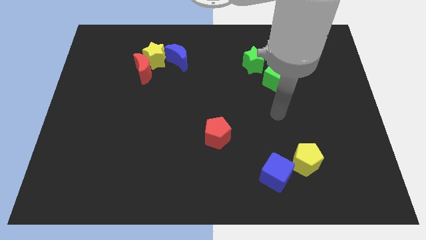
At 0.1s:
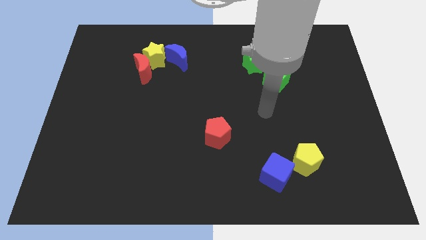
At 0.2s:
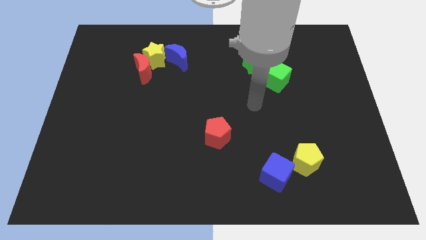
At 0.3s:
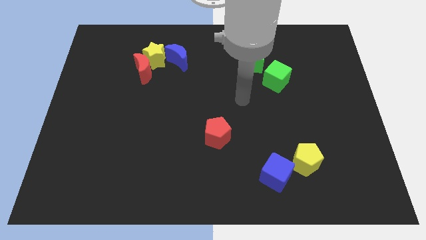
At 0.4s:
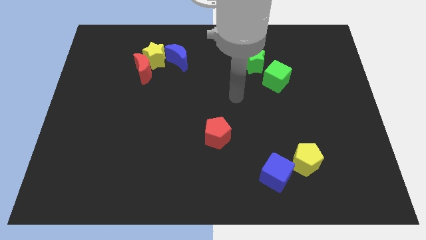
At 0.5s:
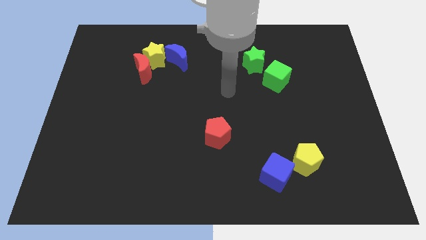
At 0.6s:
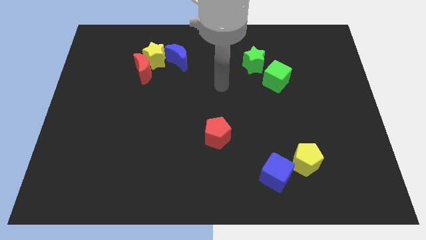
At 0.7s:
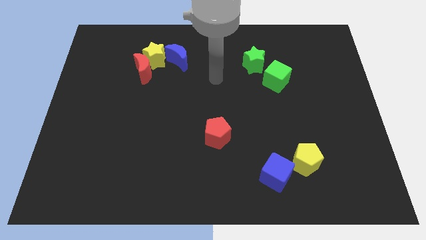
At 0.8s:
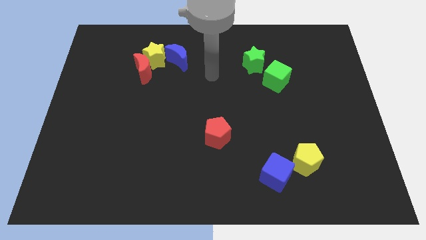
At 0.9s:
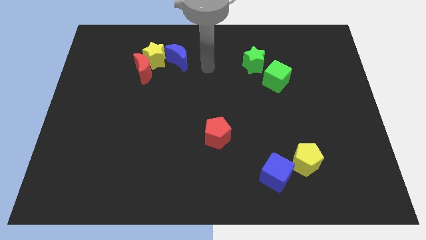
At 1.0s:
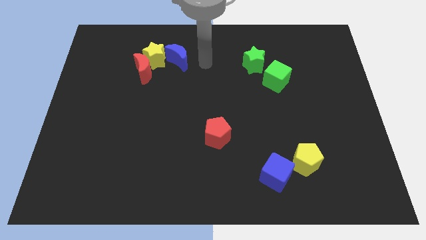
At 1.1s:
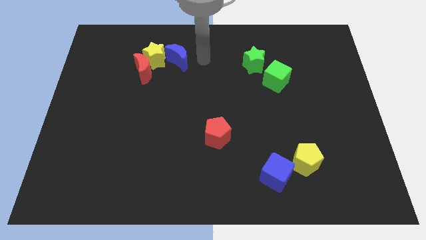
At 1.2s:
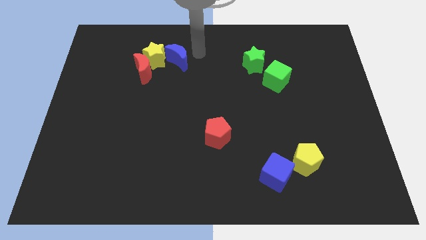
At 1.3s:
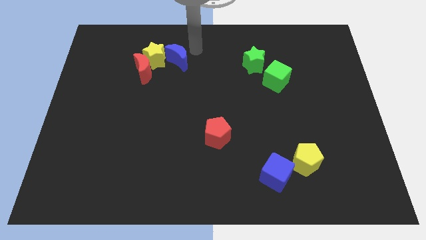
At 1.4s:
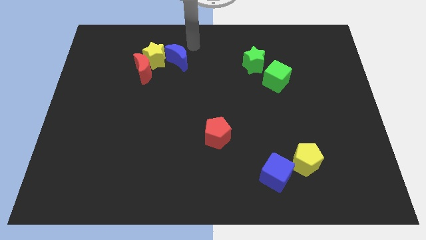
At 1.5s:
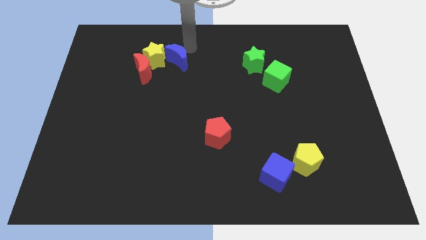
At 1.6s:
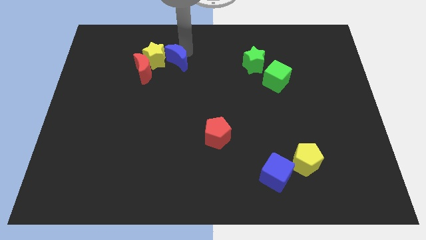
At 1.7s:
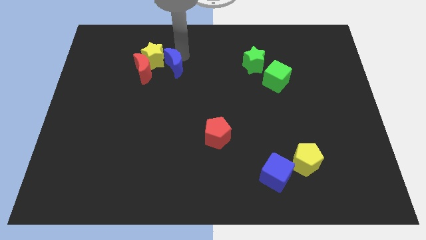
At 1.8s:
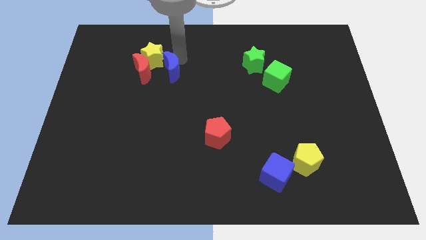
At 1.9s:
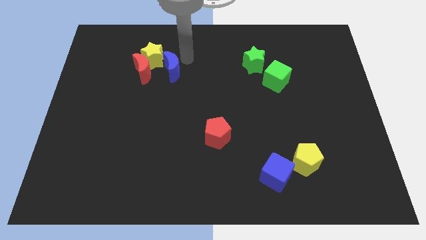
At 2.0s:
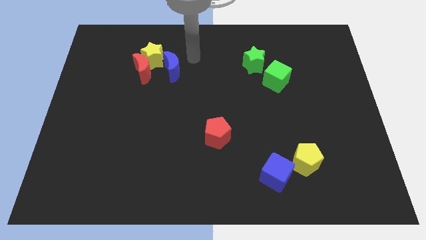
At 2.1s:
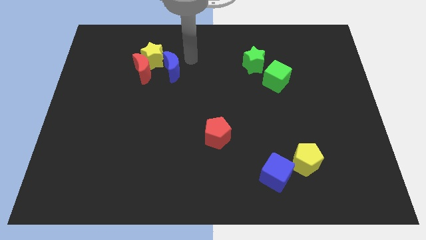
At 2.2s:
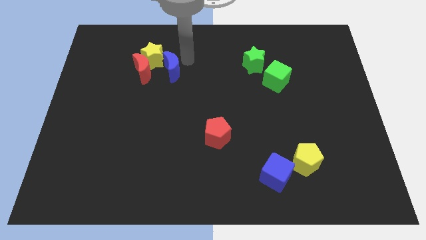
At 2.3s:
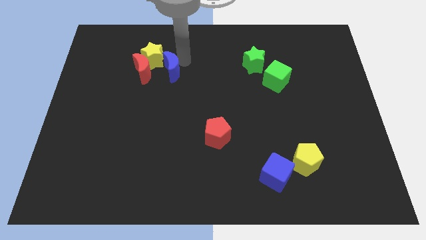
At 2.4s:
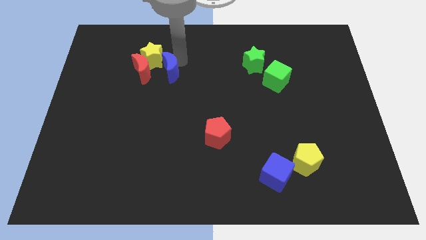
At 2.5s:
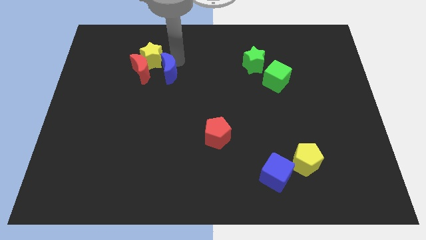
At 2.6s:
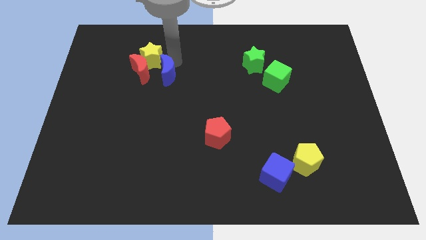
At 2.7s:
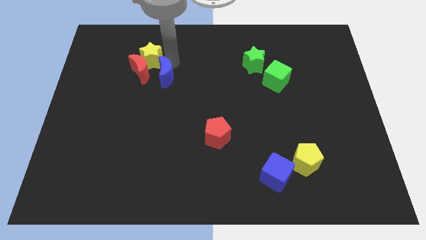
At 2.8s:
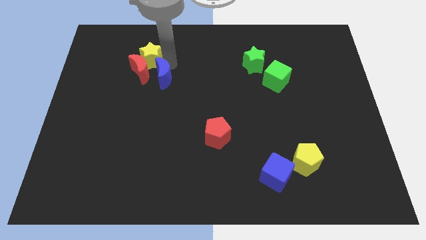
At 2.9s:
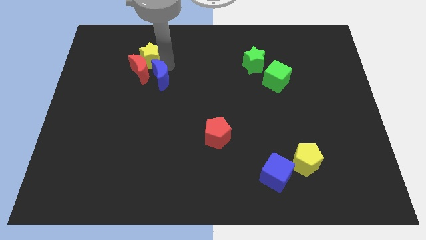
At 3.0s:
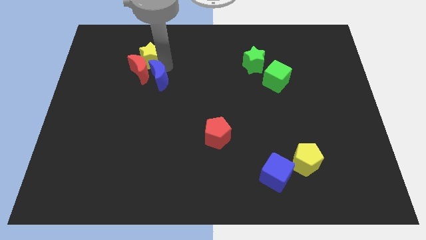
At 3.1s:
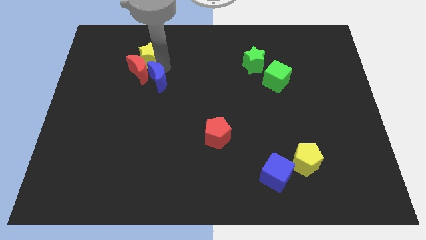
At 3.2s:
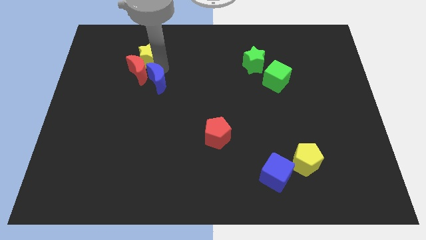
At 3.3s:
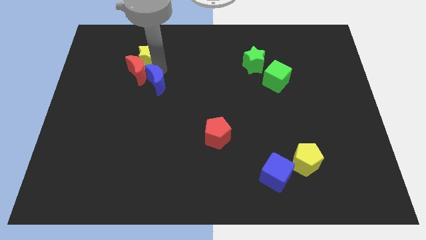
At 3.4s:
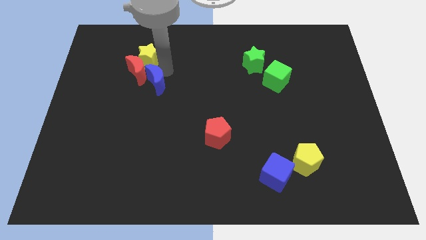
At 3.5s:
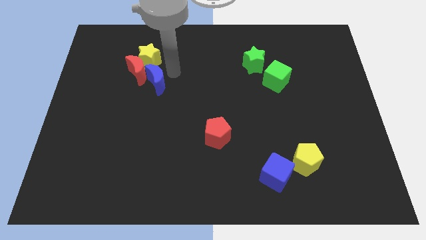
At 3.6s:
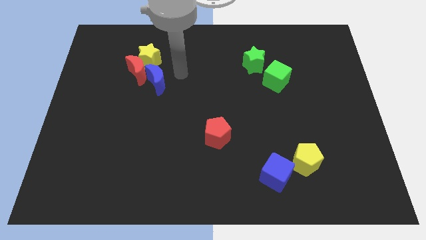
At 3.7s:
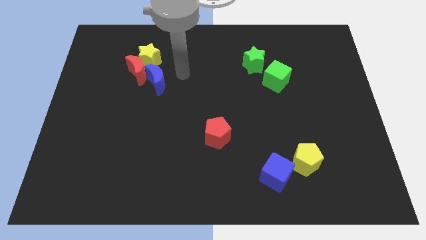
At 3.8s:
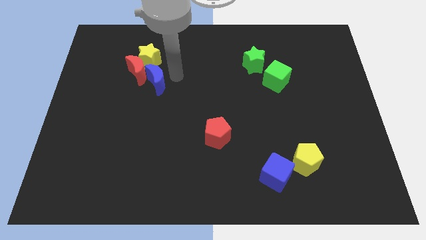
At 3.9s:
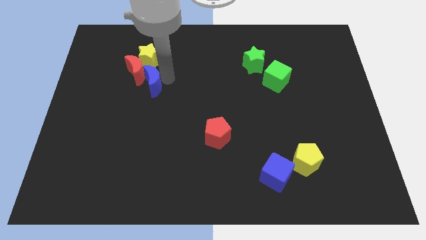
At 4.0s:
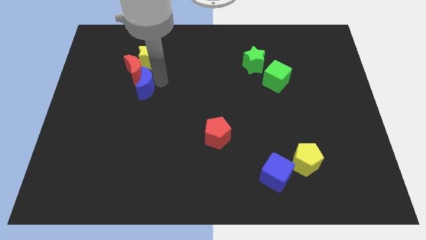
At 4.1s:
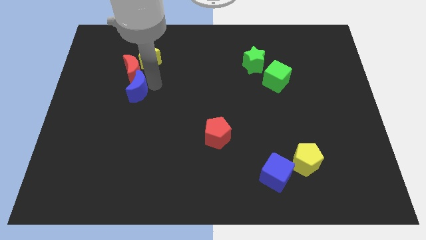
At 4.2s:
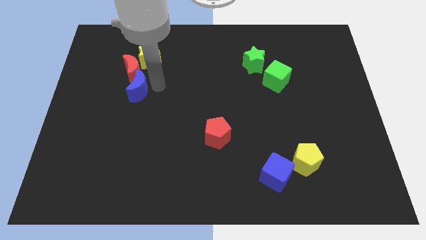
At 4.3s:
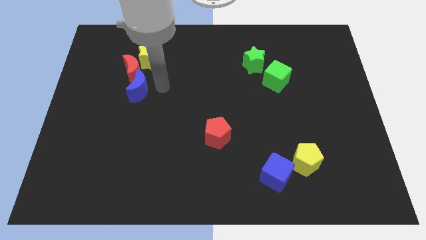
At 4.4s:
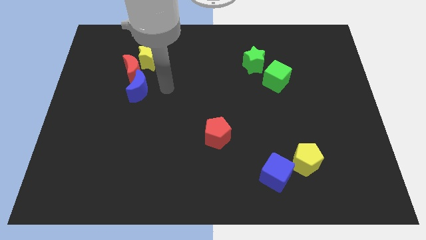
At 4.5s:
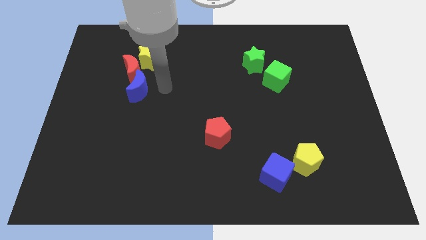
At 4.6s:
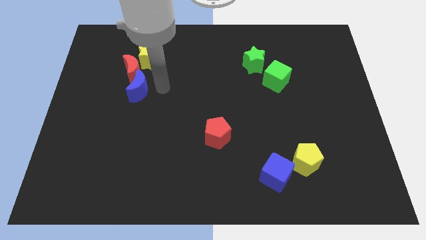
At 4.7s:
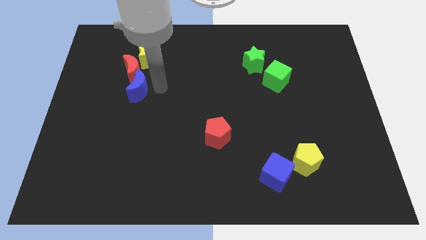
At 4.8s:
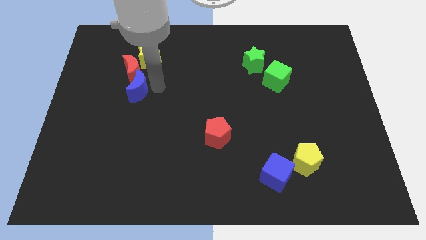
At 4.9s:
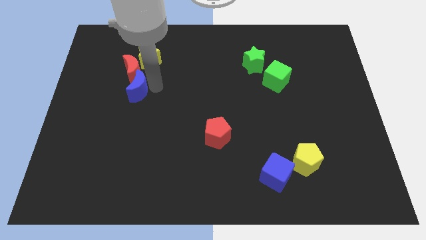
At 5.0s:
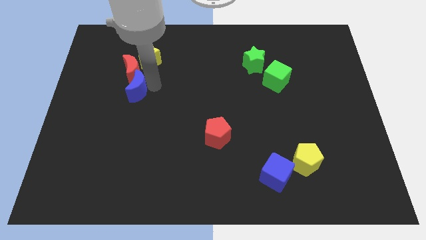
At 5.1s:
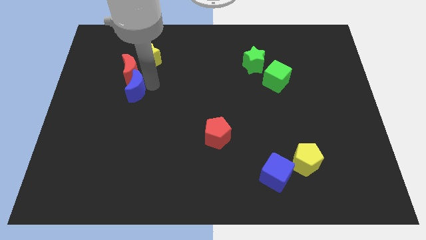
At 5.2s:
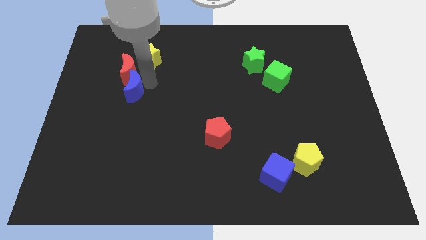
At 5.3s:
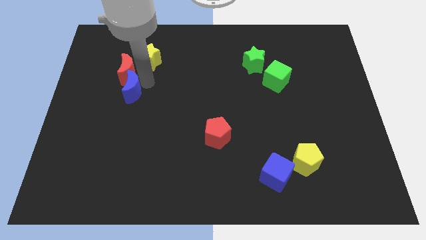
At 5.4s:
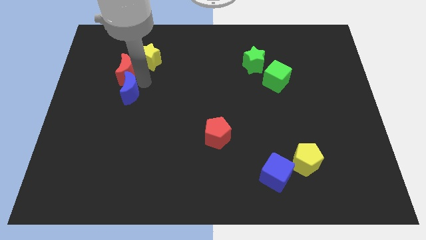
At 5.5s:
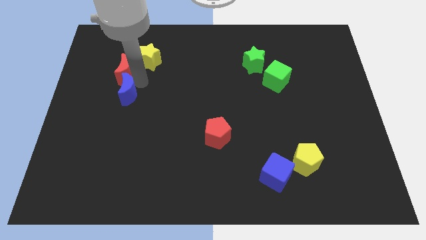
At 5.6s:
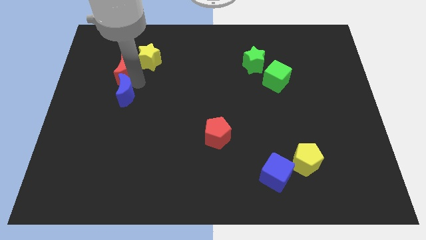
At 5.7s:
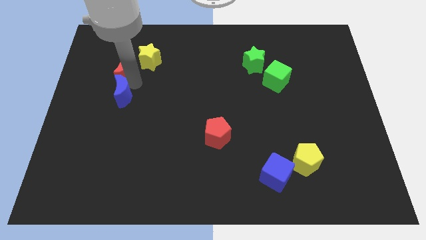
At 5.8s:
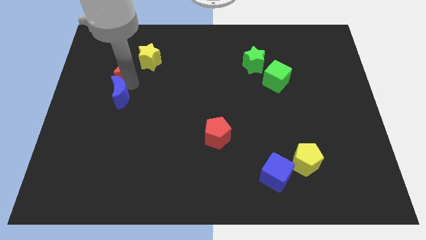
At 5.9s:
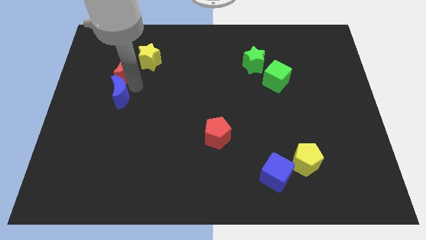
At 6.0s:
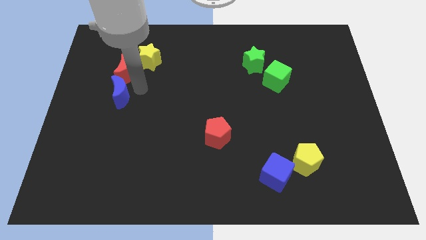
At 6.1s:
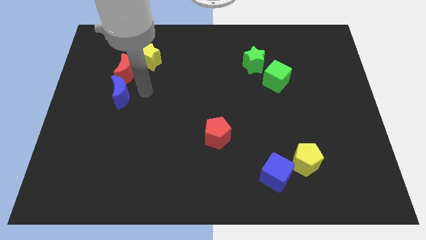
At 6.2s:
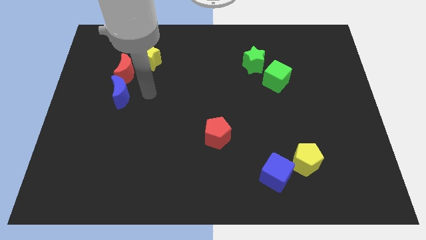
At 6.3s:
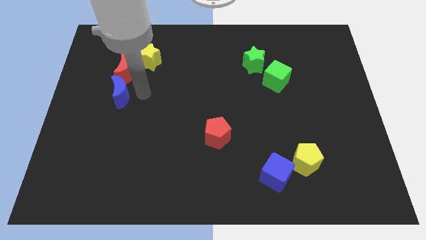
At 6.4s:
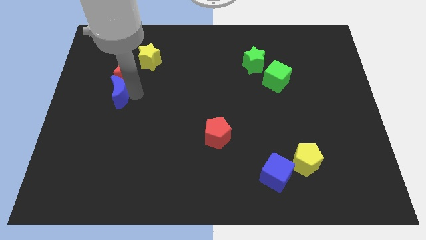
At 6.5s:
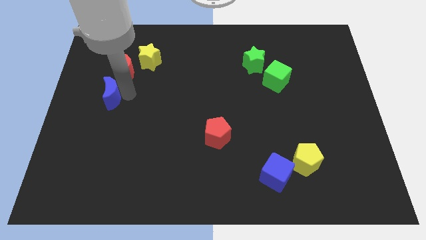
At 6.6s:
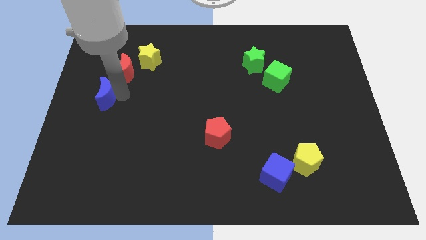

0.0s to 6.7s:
move the blue moon to the left side of the board

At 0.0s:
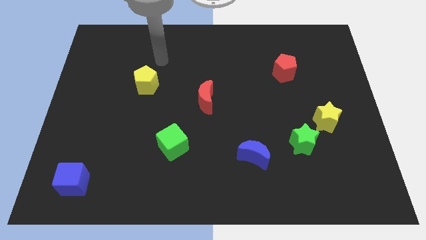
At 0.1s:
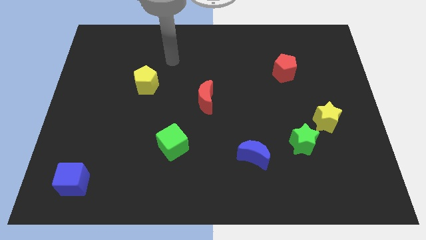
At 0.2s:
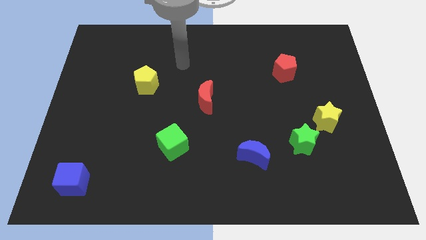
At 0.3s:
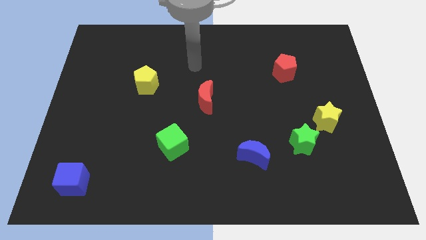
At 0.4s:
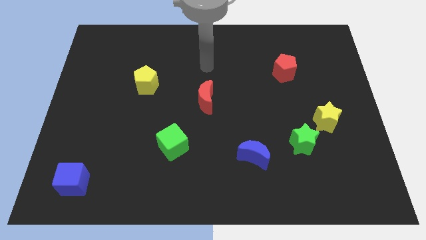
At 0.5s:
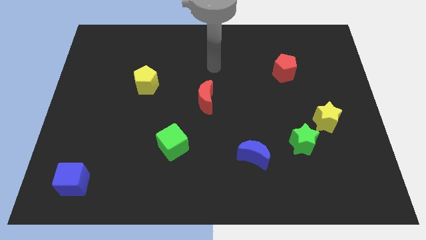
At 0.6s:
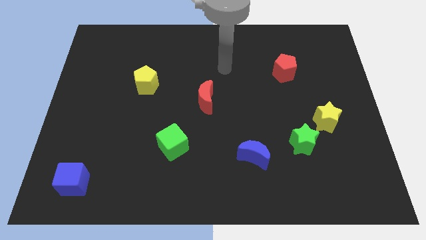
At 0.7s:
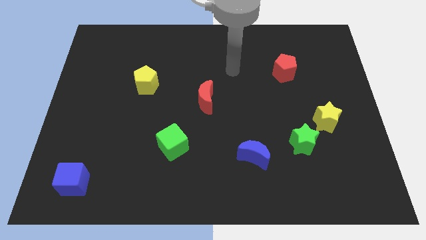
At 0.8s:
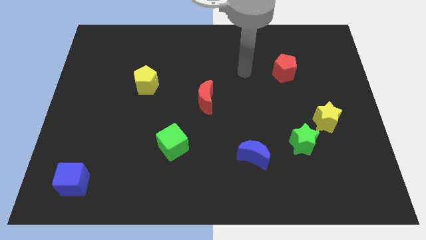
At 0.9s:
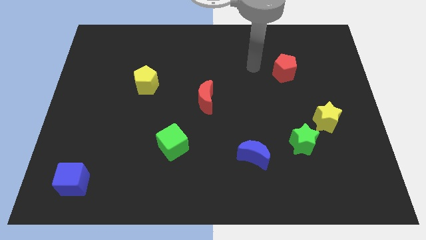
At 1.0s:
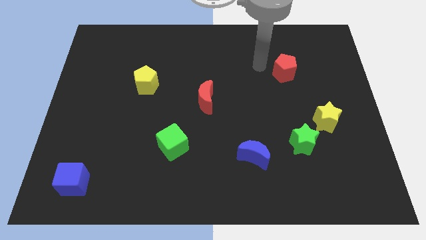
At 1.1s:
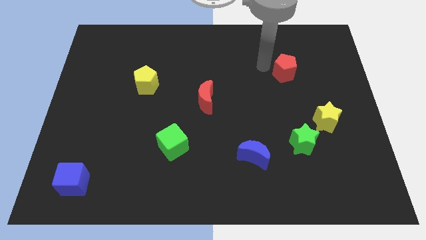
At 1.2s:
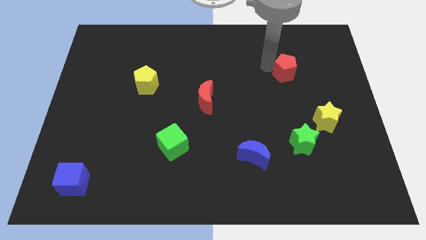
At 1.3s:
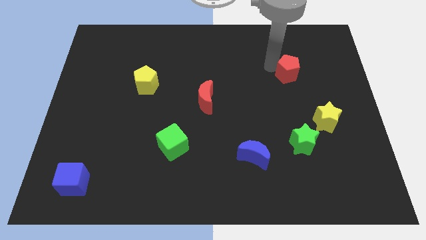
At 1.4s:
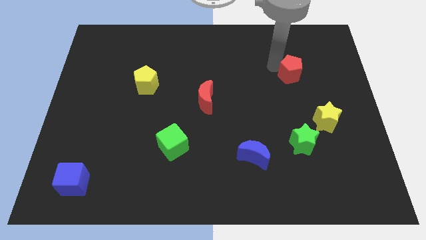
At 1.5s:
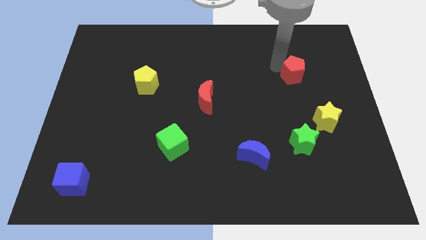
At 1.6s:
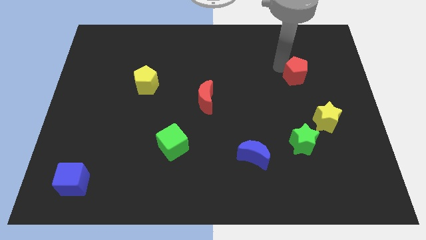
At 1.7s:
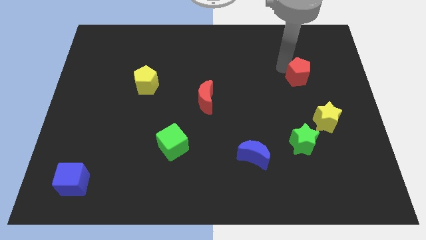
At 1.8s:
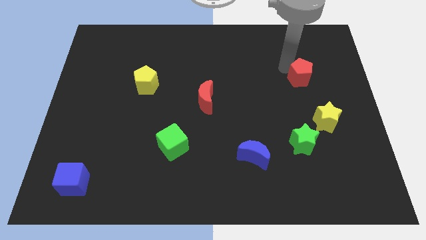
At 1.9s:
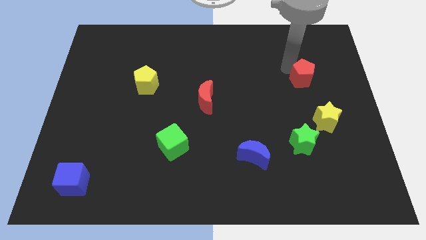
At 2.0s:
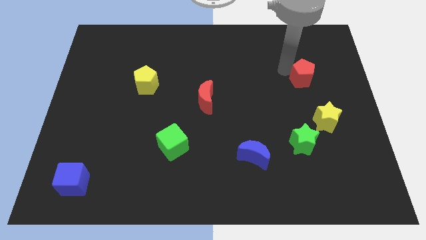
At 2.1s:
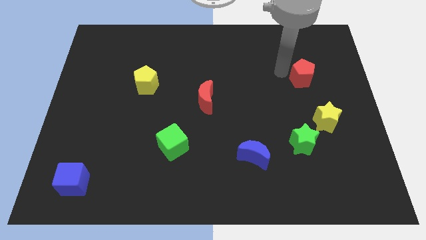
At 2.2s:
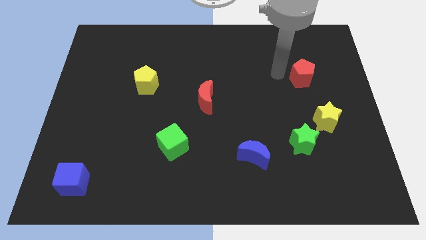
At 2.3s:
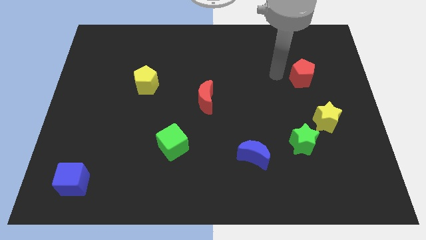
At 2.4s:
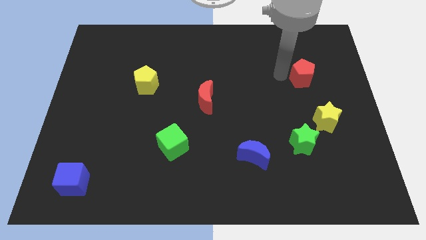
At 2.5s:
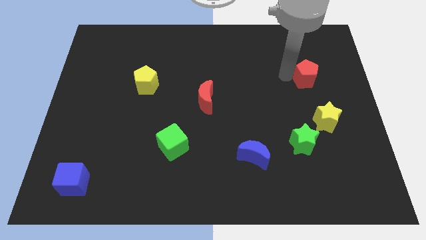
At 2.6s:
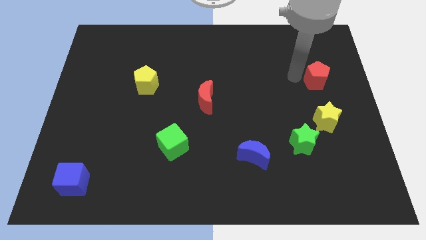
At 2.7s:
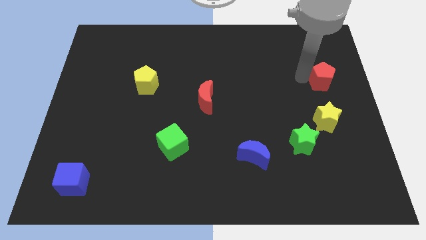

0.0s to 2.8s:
push the red pentagon to the center right
